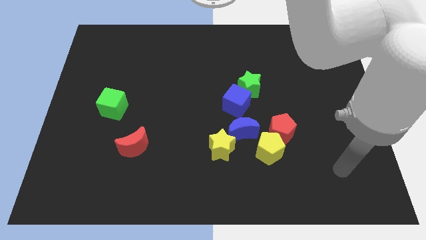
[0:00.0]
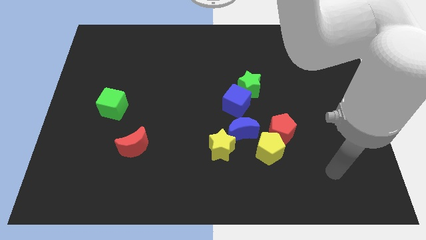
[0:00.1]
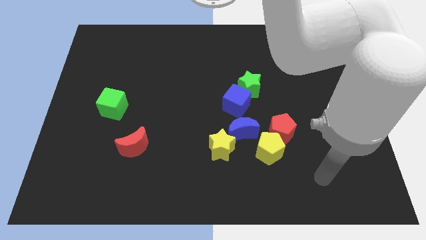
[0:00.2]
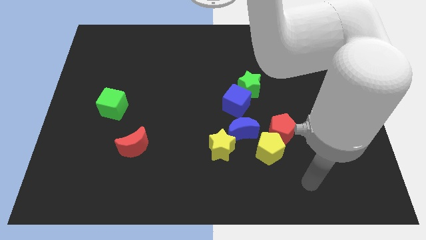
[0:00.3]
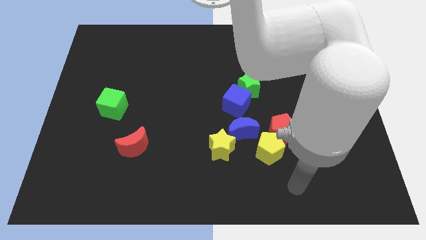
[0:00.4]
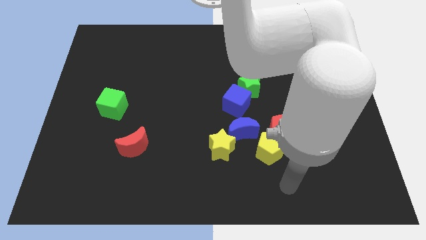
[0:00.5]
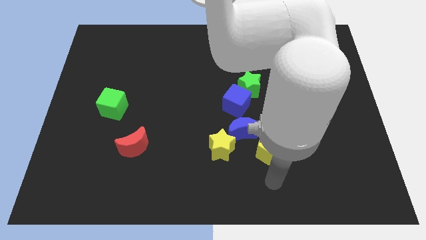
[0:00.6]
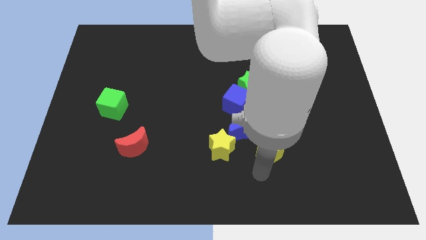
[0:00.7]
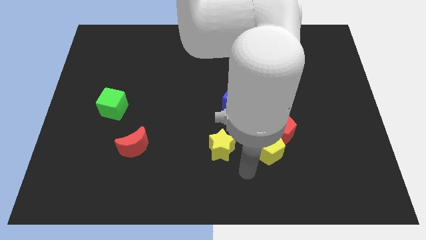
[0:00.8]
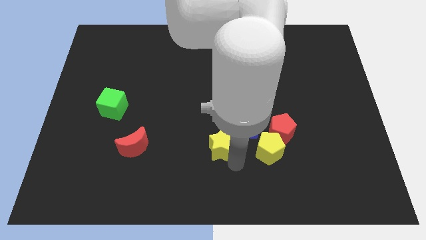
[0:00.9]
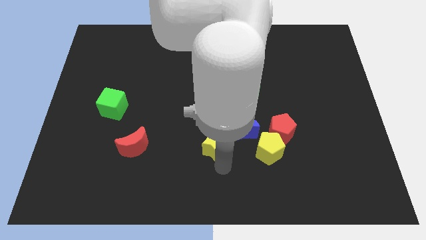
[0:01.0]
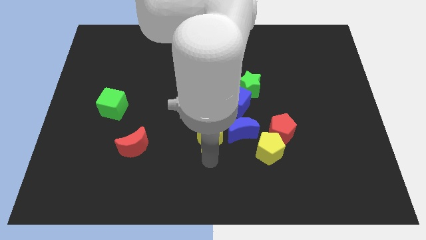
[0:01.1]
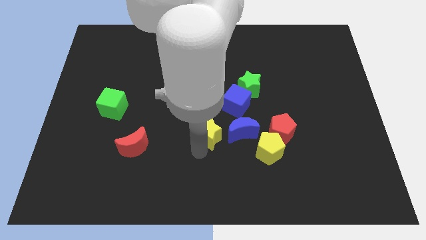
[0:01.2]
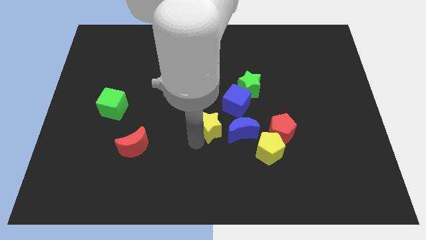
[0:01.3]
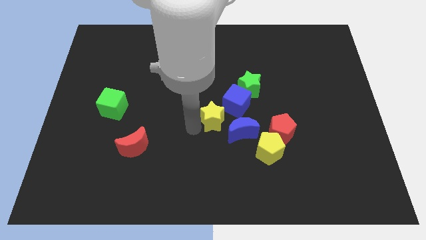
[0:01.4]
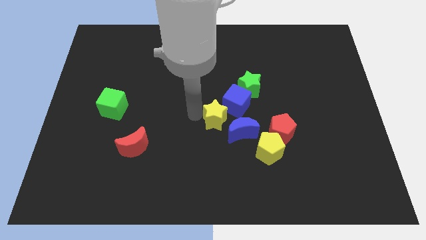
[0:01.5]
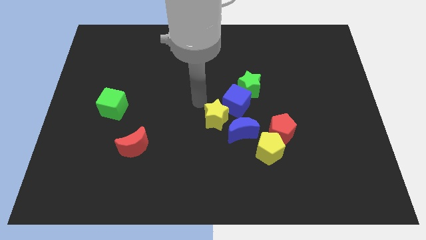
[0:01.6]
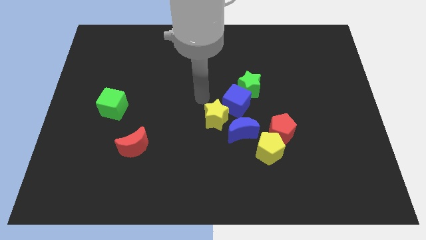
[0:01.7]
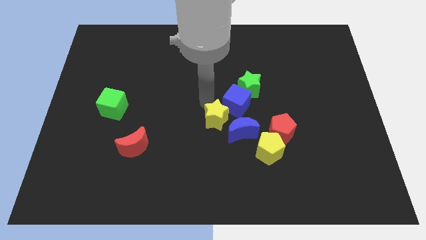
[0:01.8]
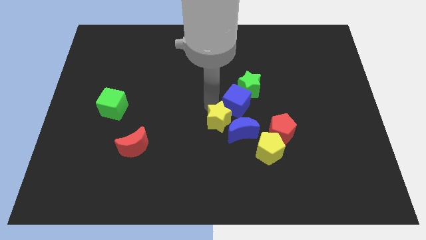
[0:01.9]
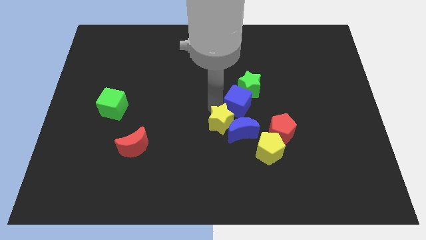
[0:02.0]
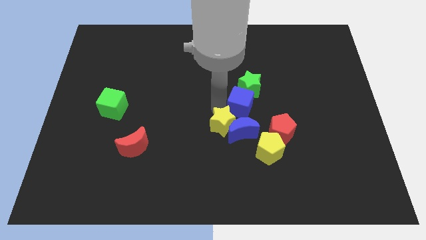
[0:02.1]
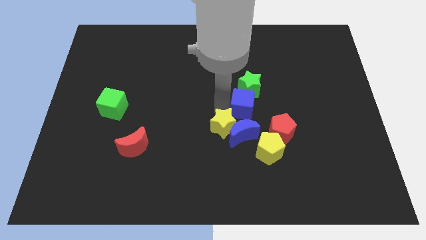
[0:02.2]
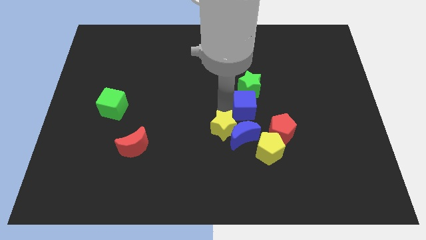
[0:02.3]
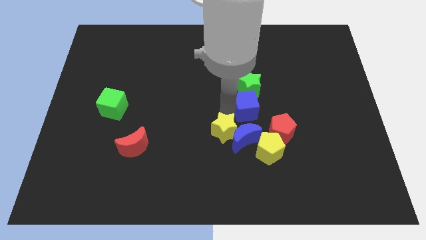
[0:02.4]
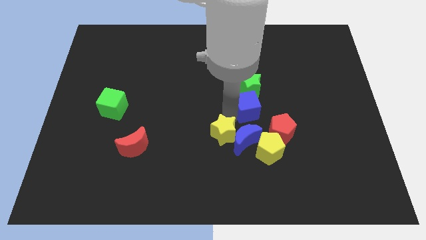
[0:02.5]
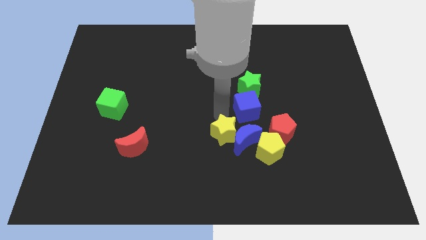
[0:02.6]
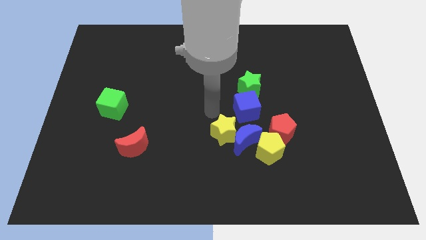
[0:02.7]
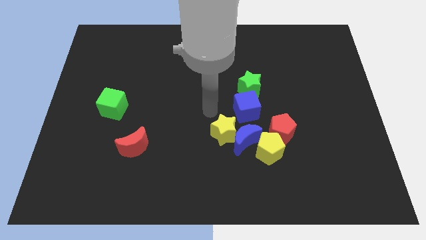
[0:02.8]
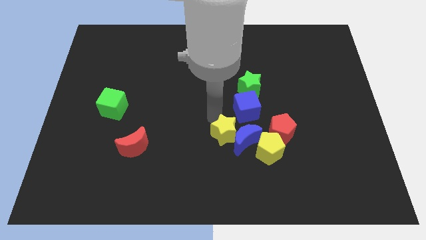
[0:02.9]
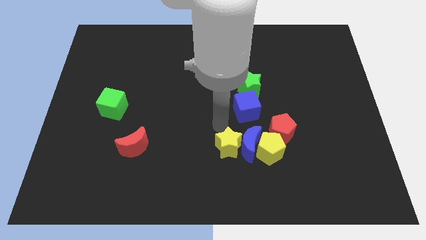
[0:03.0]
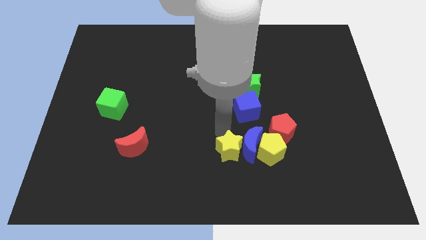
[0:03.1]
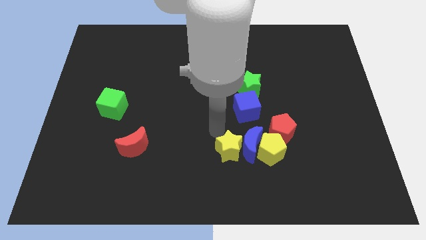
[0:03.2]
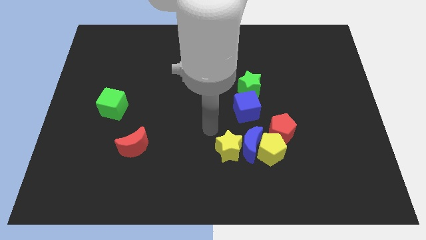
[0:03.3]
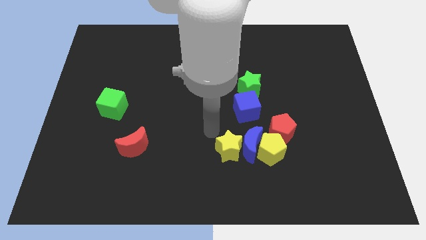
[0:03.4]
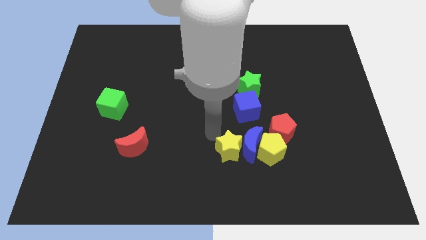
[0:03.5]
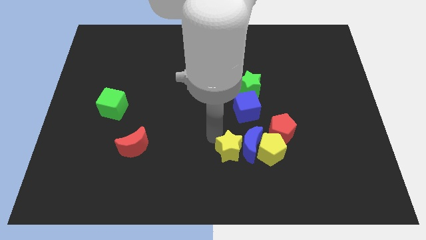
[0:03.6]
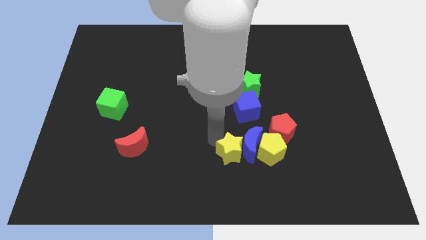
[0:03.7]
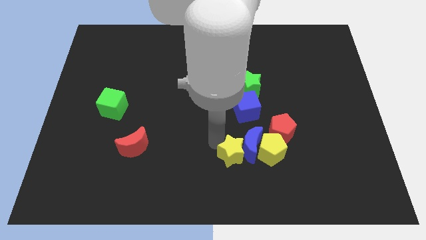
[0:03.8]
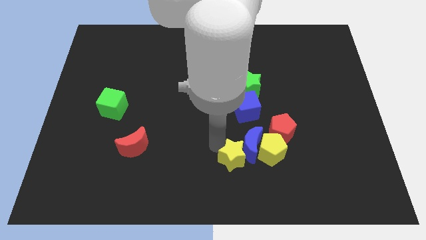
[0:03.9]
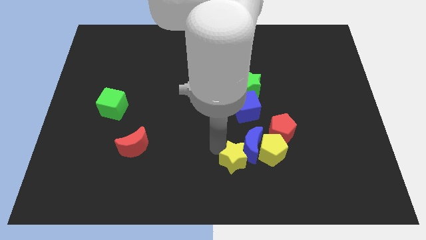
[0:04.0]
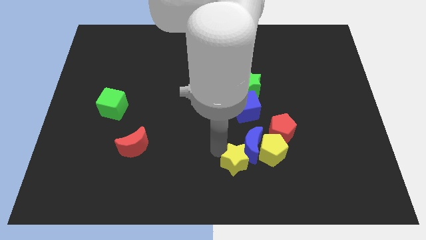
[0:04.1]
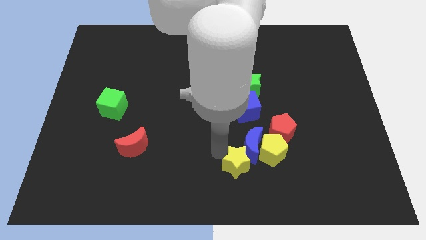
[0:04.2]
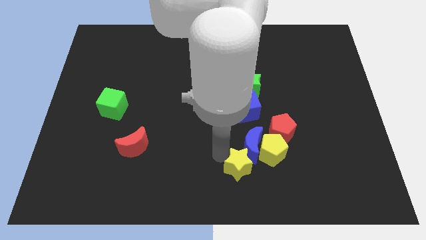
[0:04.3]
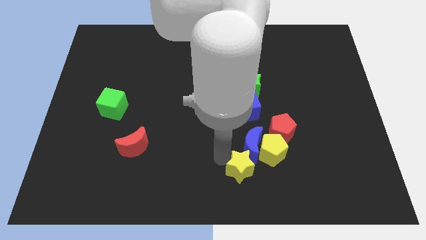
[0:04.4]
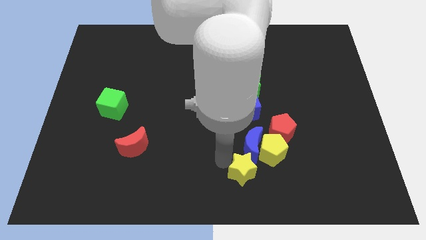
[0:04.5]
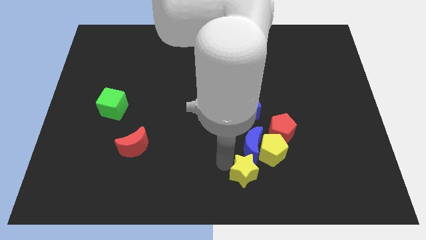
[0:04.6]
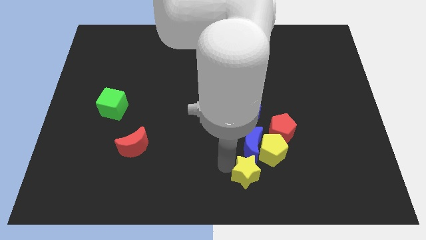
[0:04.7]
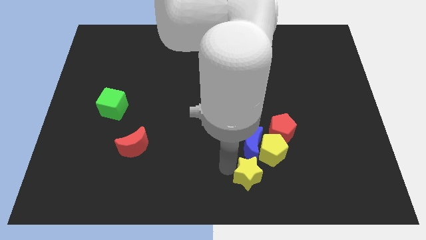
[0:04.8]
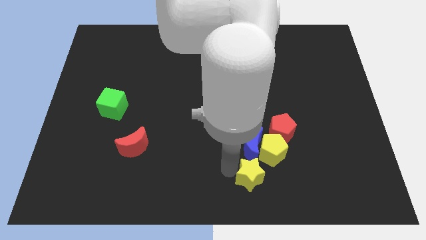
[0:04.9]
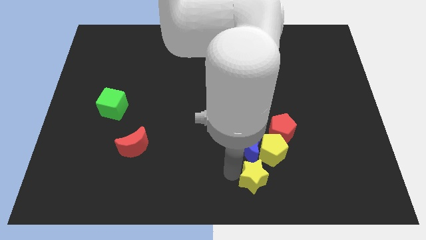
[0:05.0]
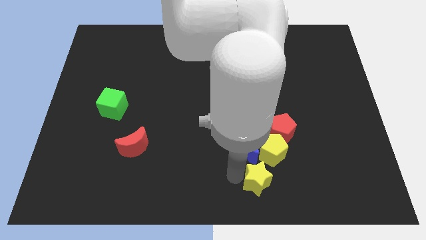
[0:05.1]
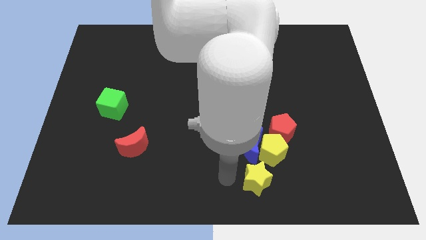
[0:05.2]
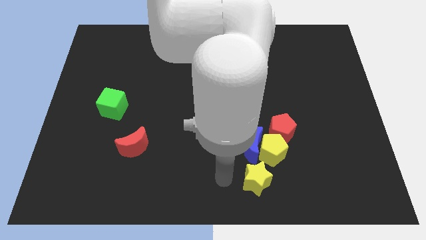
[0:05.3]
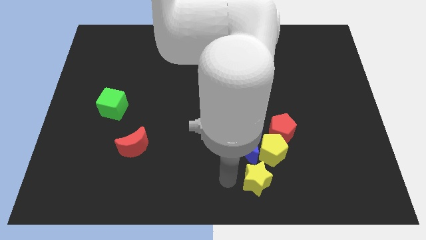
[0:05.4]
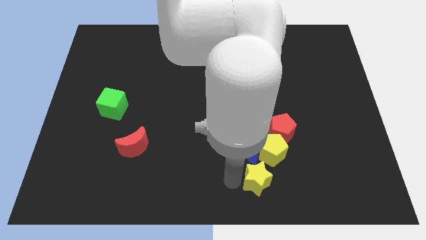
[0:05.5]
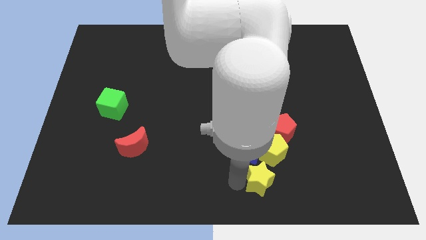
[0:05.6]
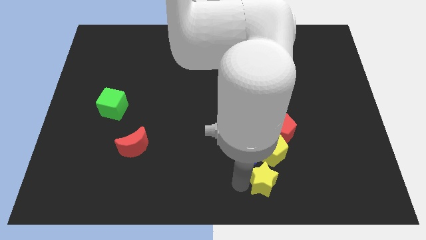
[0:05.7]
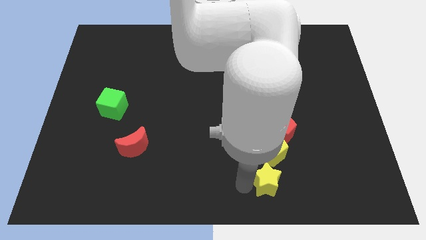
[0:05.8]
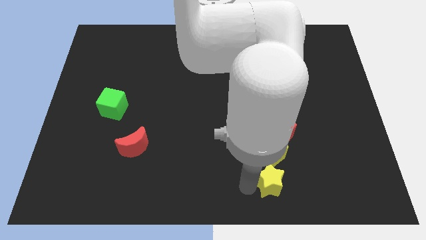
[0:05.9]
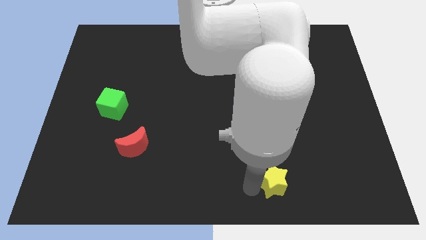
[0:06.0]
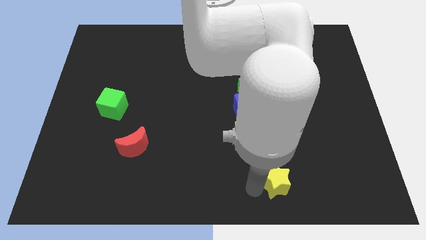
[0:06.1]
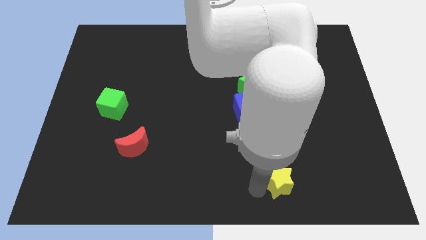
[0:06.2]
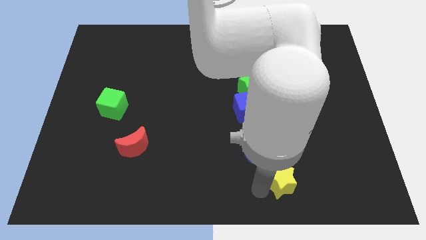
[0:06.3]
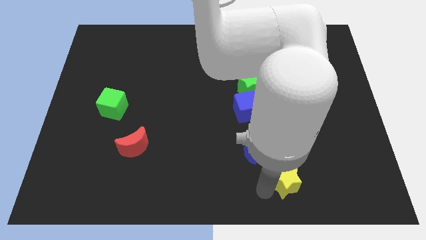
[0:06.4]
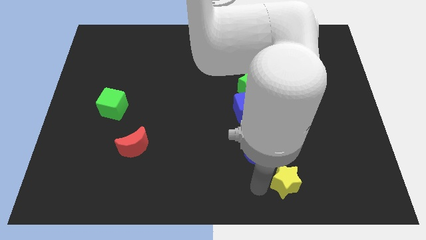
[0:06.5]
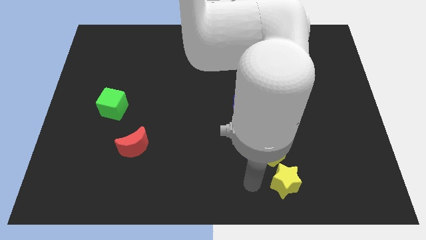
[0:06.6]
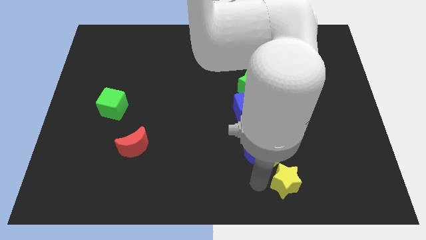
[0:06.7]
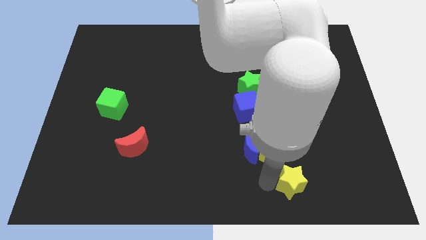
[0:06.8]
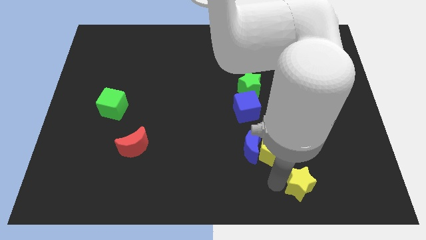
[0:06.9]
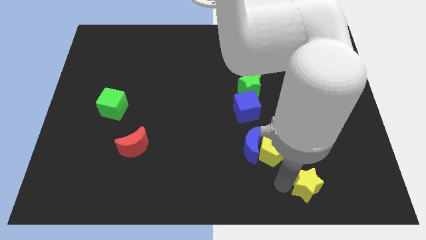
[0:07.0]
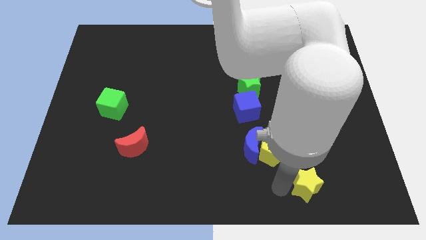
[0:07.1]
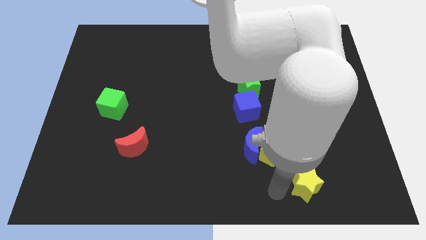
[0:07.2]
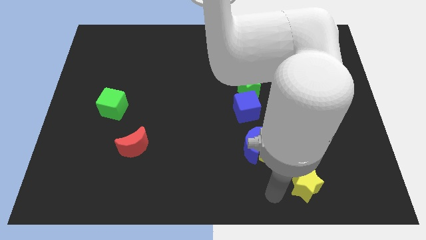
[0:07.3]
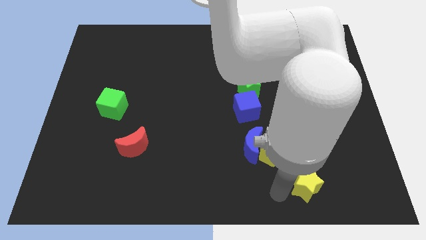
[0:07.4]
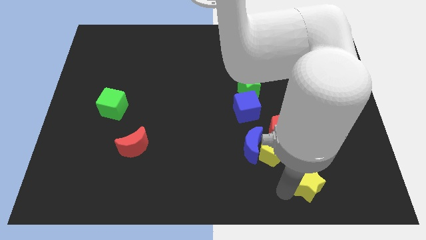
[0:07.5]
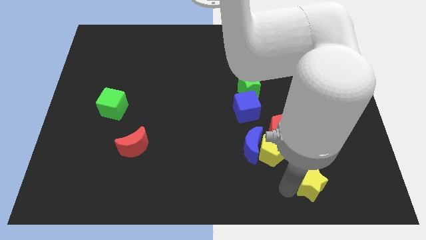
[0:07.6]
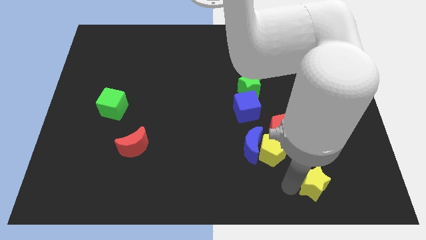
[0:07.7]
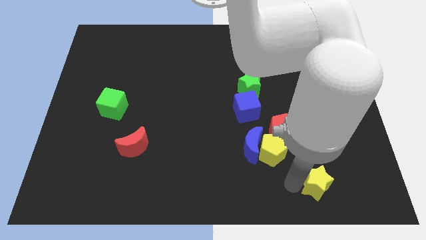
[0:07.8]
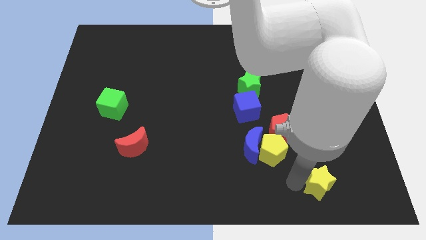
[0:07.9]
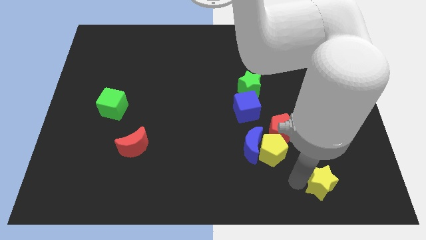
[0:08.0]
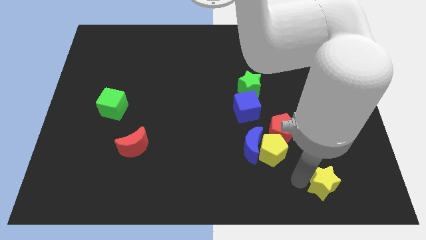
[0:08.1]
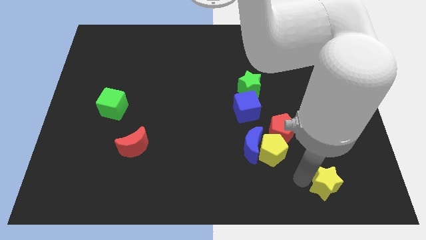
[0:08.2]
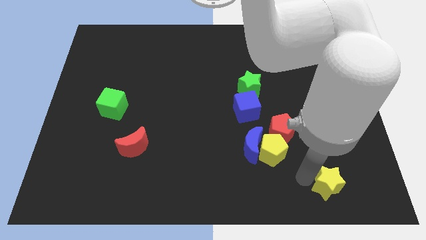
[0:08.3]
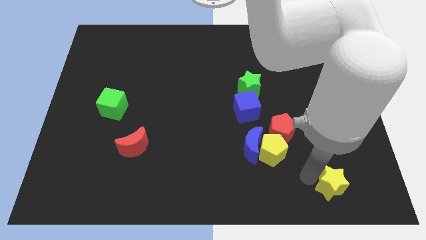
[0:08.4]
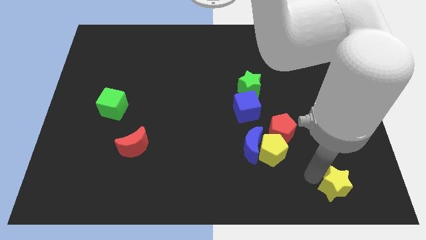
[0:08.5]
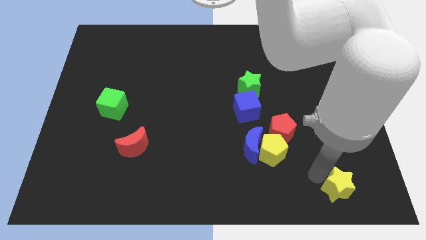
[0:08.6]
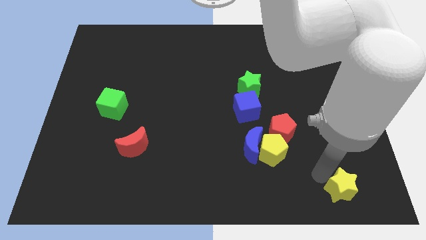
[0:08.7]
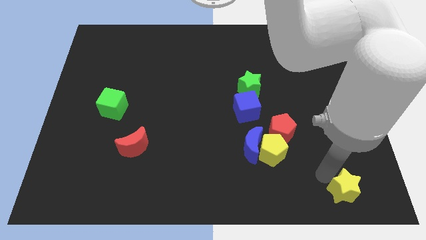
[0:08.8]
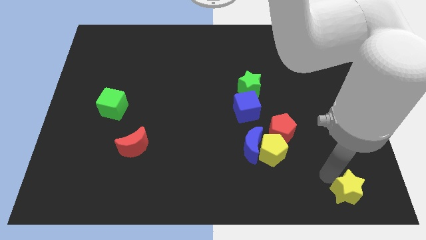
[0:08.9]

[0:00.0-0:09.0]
put the yellow star to the bottom right corner
